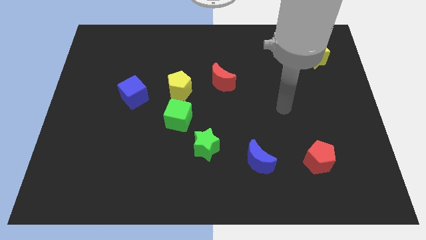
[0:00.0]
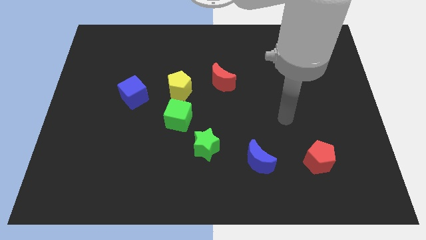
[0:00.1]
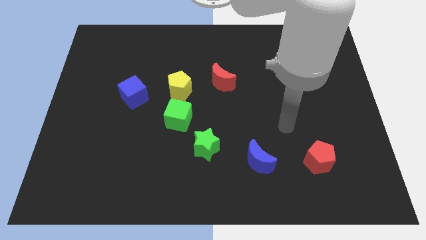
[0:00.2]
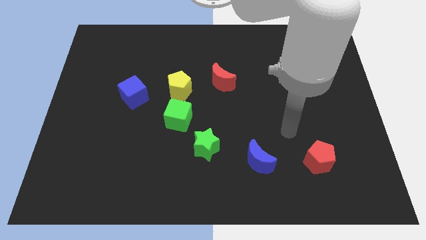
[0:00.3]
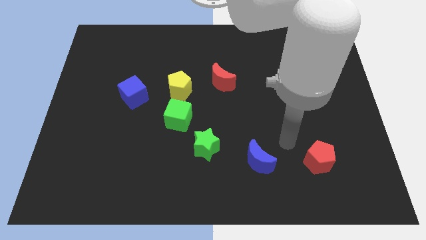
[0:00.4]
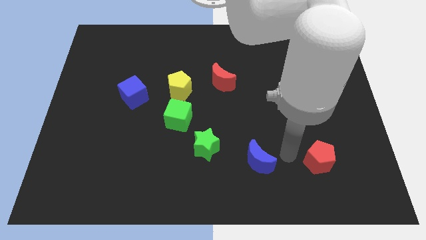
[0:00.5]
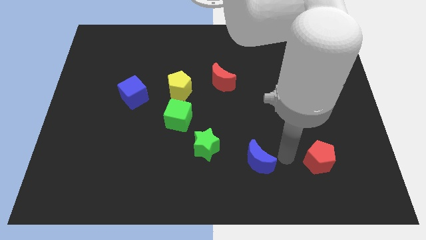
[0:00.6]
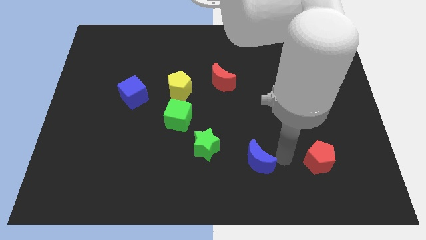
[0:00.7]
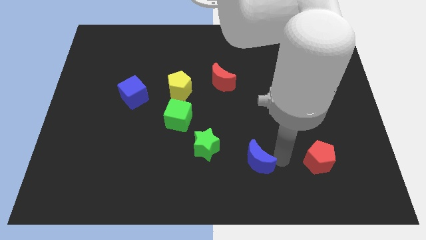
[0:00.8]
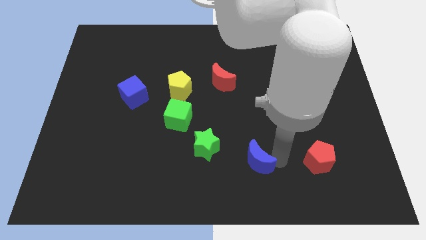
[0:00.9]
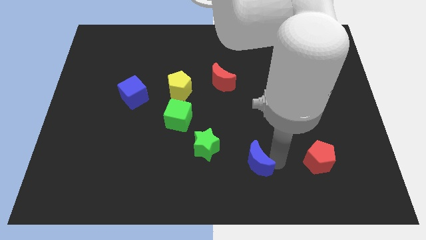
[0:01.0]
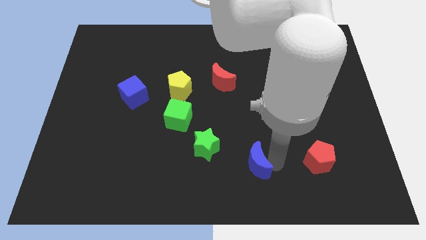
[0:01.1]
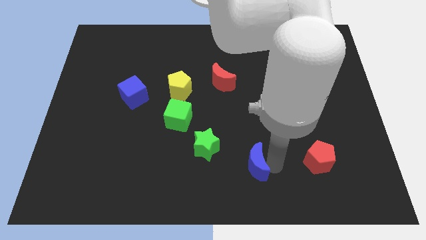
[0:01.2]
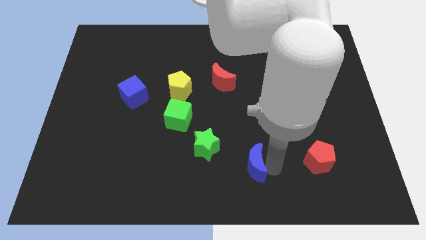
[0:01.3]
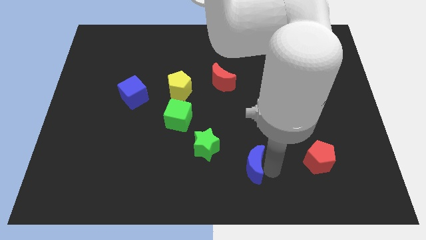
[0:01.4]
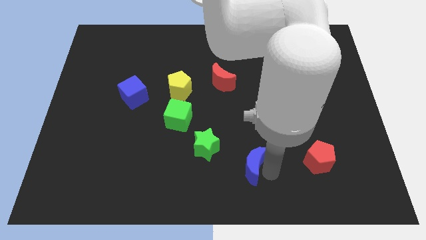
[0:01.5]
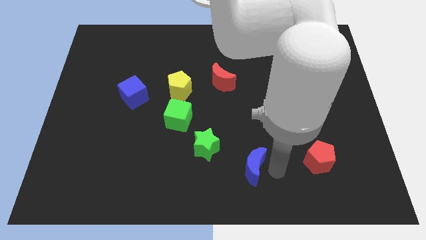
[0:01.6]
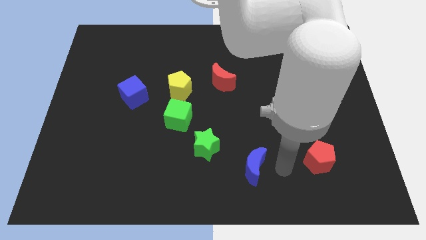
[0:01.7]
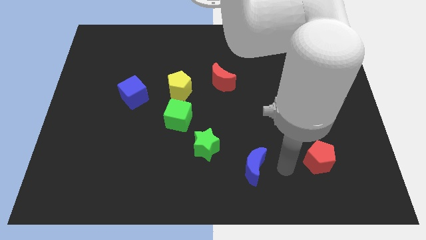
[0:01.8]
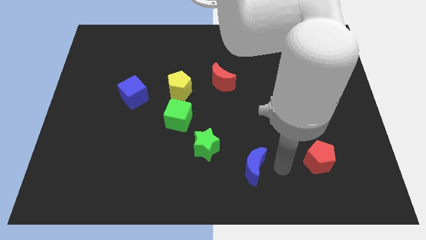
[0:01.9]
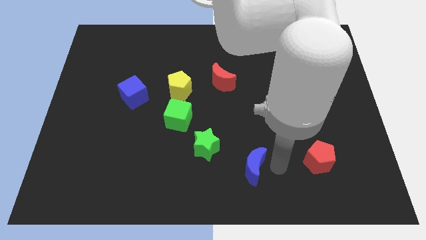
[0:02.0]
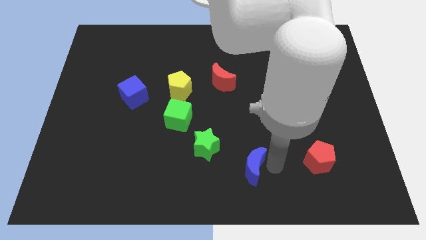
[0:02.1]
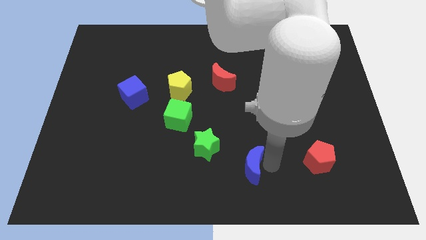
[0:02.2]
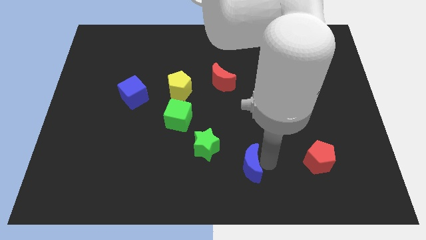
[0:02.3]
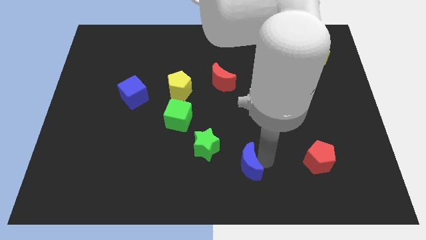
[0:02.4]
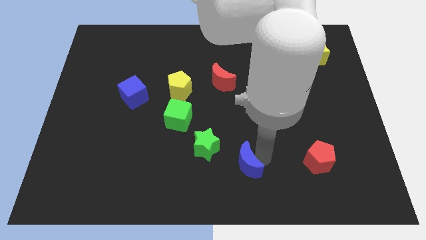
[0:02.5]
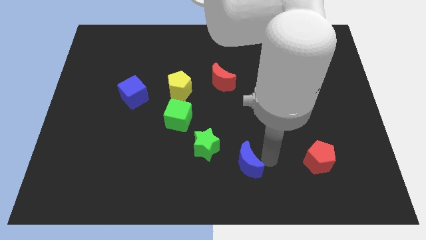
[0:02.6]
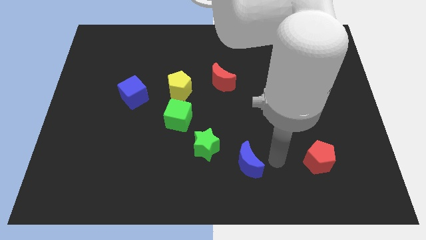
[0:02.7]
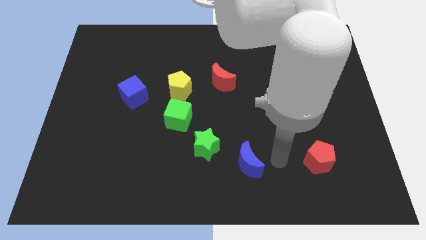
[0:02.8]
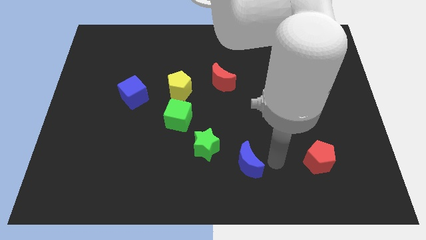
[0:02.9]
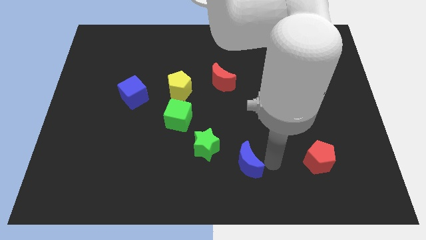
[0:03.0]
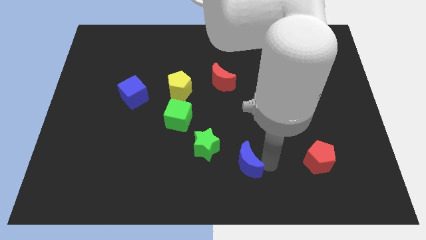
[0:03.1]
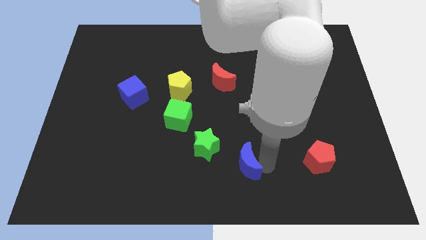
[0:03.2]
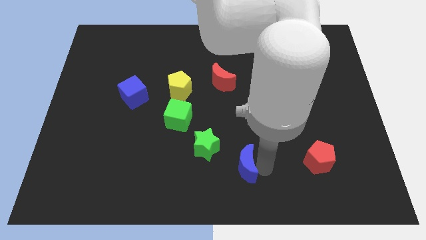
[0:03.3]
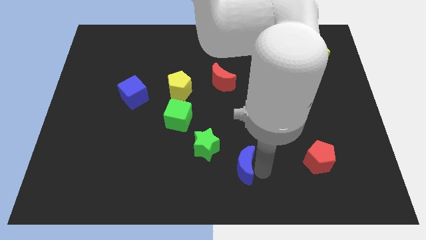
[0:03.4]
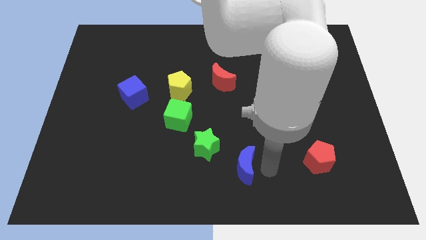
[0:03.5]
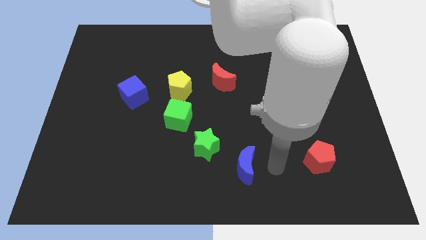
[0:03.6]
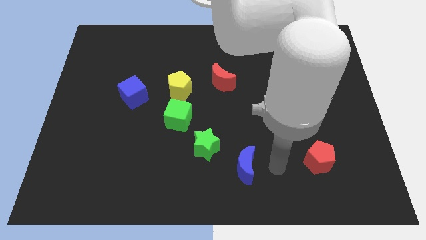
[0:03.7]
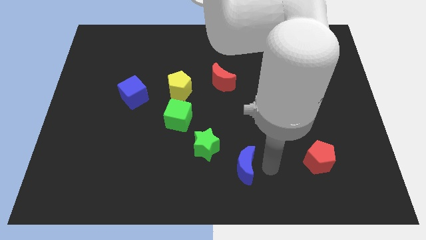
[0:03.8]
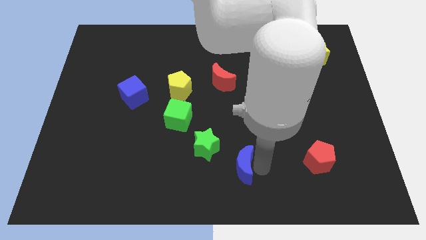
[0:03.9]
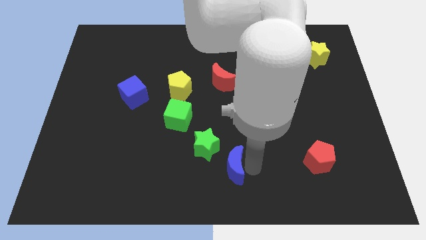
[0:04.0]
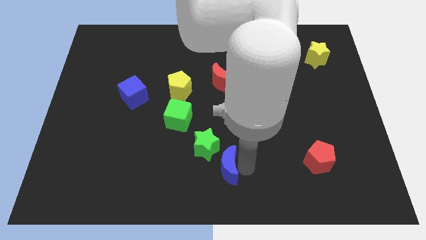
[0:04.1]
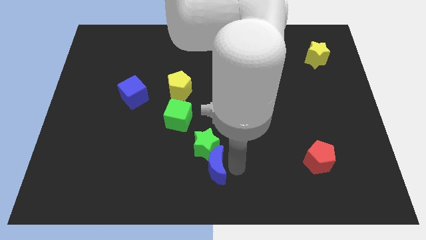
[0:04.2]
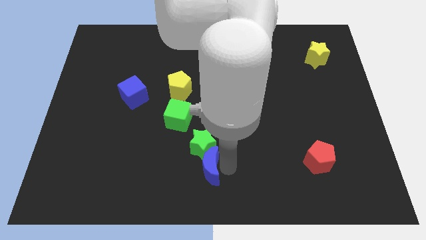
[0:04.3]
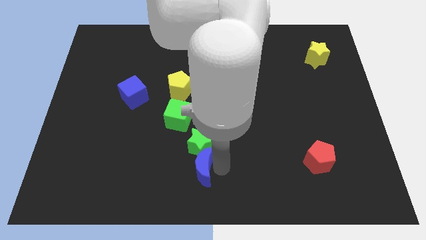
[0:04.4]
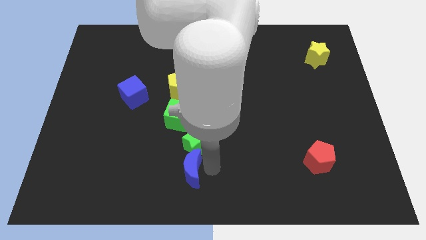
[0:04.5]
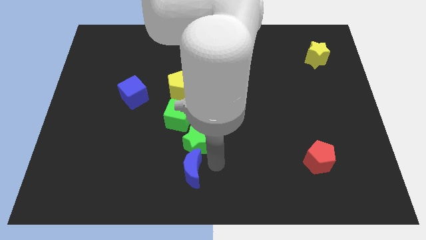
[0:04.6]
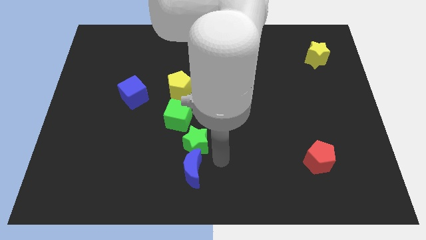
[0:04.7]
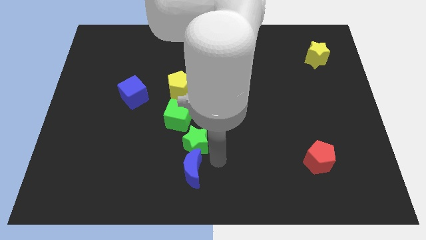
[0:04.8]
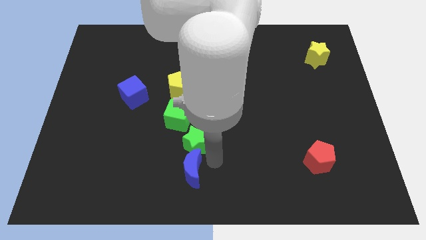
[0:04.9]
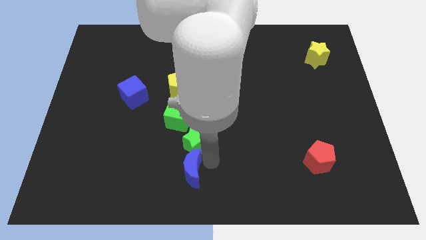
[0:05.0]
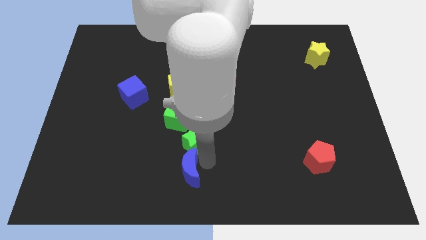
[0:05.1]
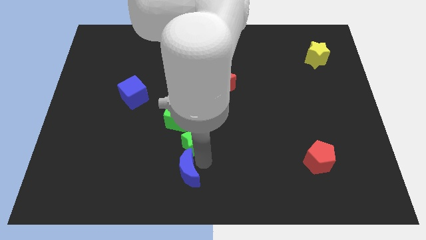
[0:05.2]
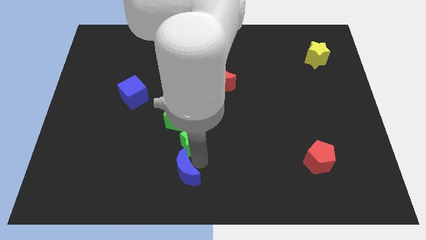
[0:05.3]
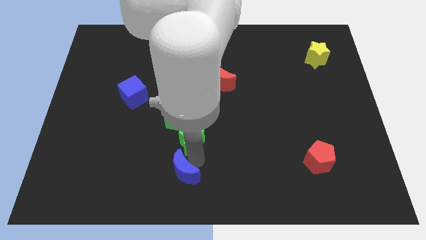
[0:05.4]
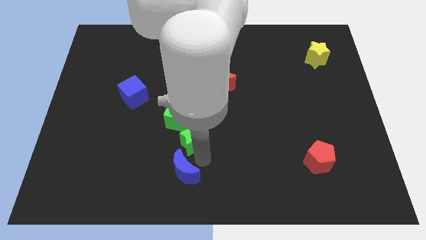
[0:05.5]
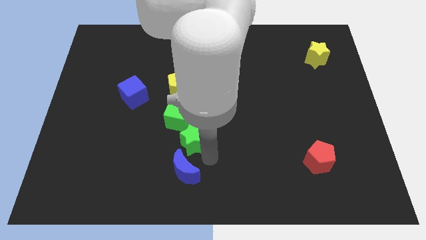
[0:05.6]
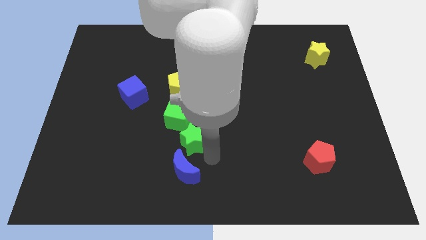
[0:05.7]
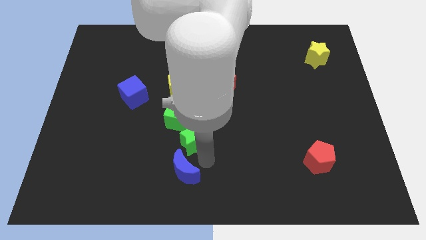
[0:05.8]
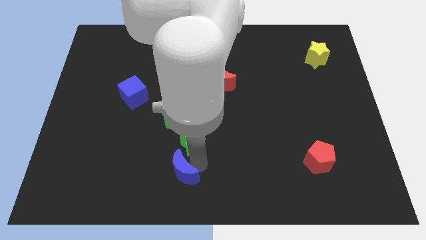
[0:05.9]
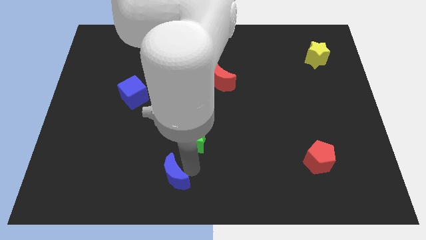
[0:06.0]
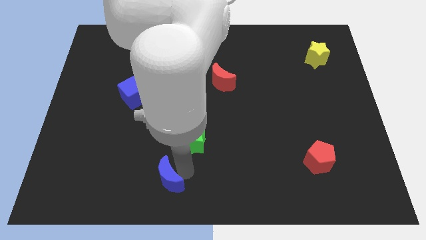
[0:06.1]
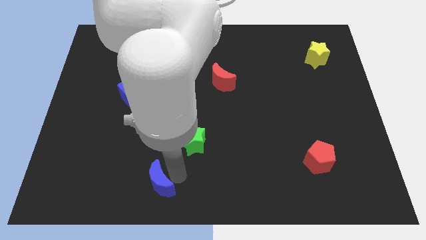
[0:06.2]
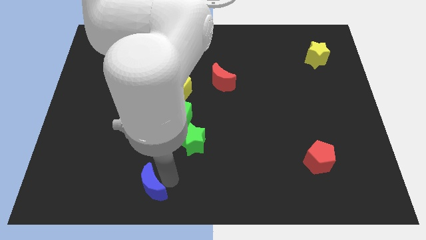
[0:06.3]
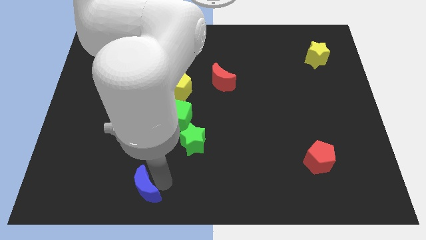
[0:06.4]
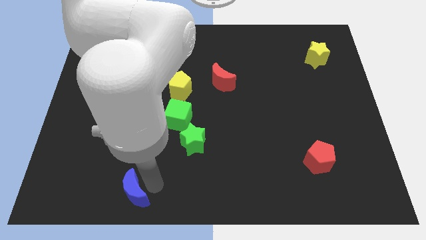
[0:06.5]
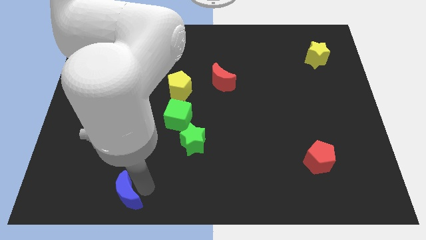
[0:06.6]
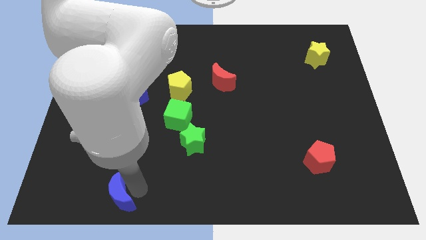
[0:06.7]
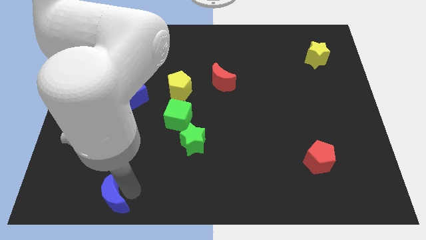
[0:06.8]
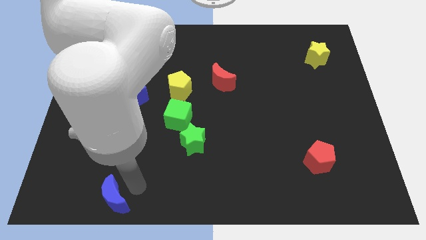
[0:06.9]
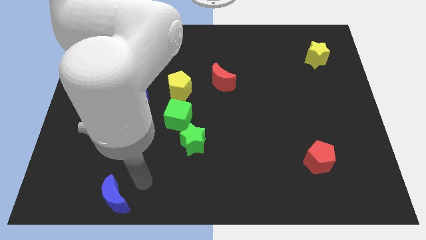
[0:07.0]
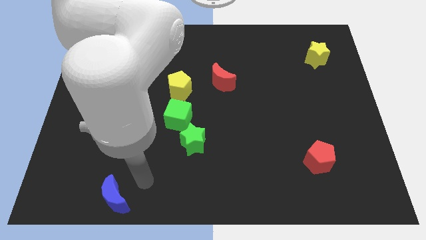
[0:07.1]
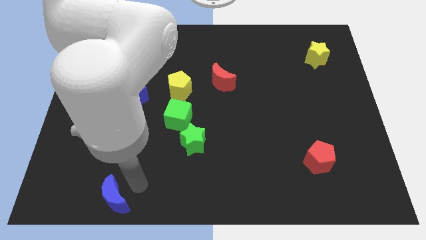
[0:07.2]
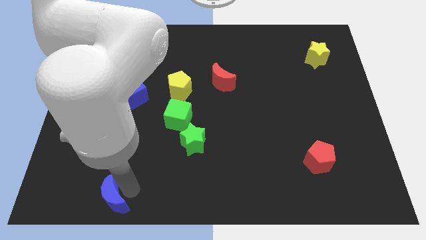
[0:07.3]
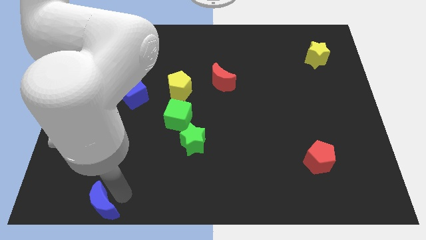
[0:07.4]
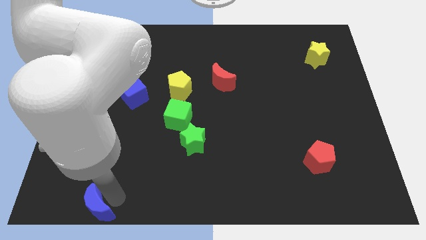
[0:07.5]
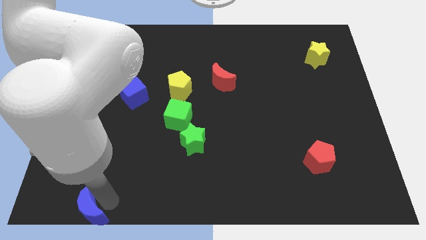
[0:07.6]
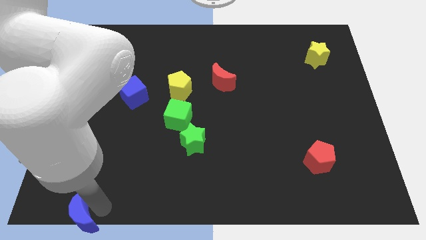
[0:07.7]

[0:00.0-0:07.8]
put the blue moon to the bottom left
